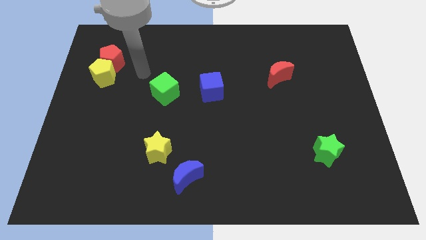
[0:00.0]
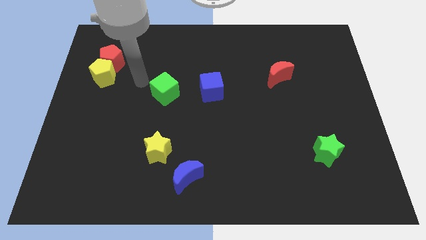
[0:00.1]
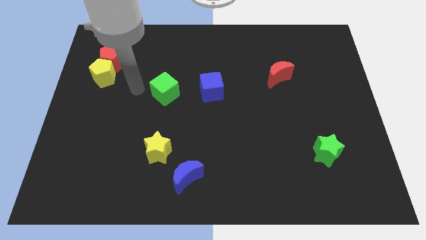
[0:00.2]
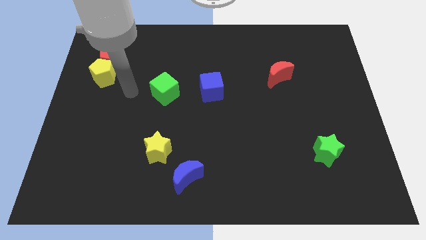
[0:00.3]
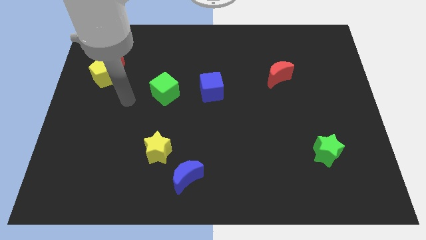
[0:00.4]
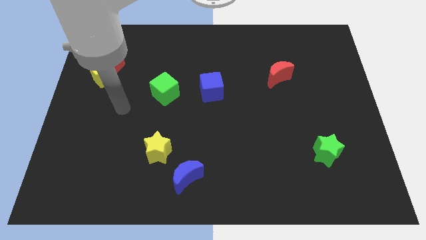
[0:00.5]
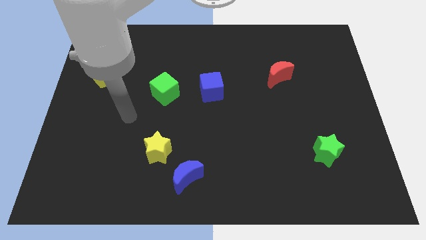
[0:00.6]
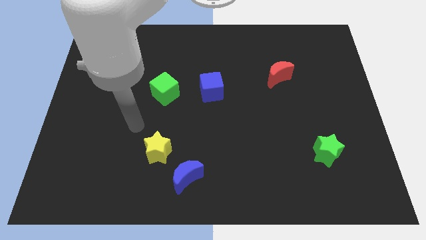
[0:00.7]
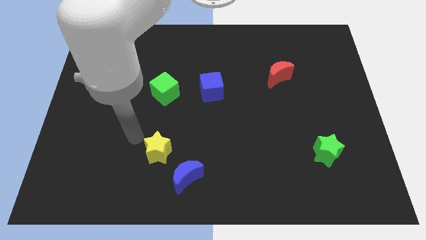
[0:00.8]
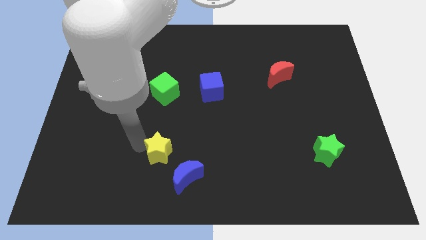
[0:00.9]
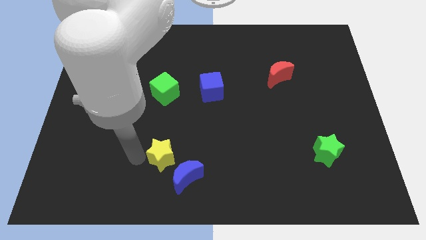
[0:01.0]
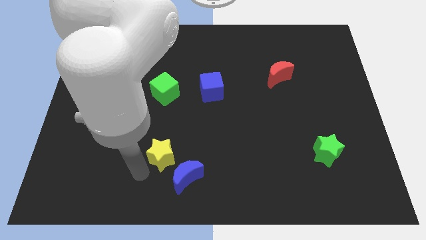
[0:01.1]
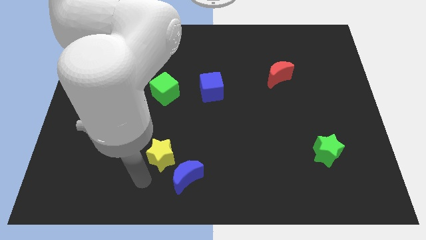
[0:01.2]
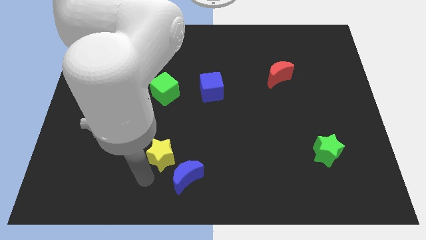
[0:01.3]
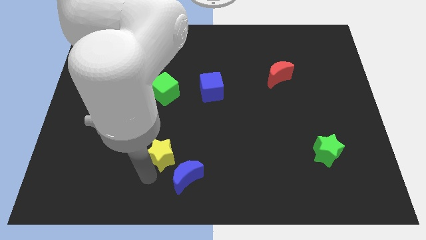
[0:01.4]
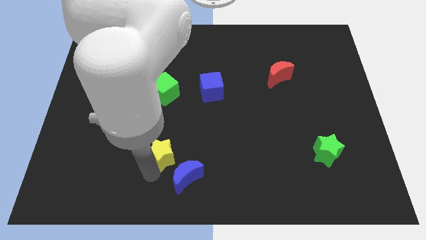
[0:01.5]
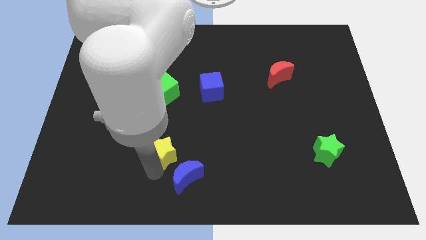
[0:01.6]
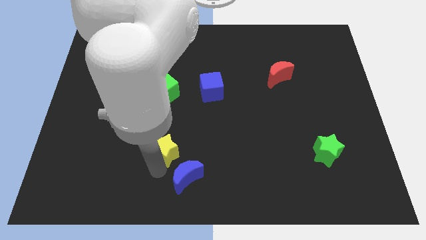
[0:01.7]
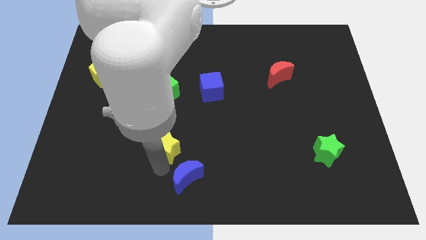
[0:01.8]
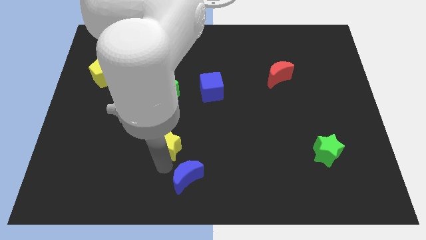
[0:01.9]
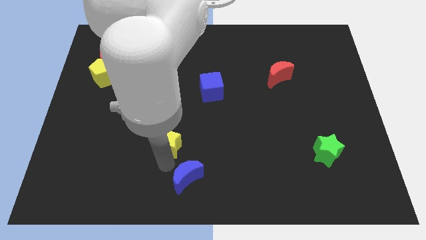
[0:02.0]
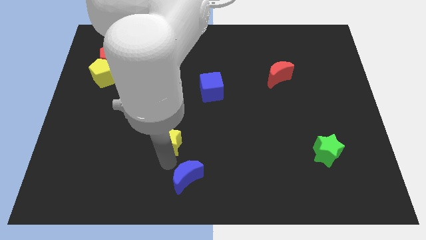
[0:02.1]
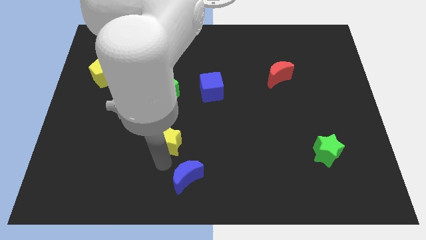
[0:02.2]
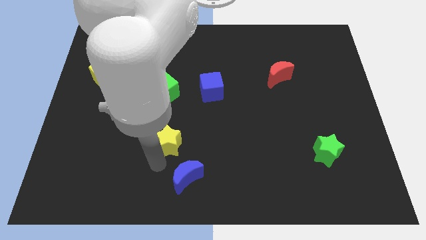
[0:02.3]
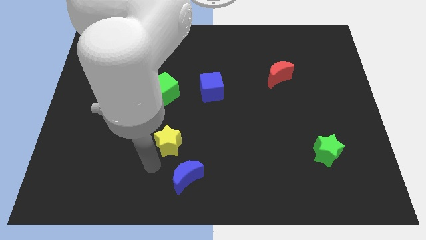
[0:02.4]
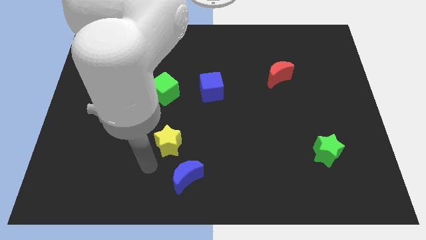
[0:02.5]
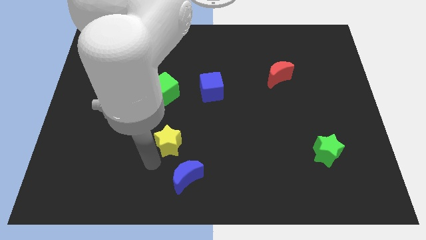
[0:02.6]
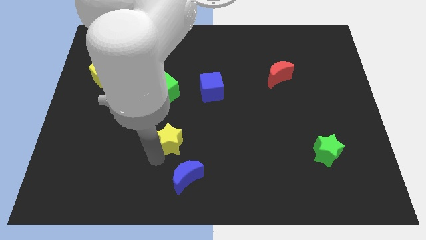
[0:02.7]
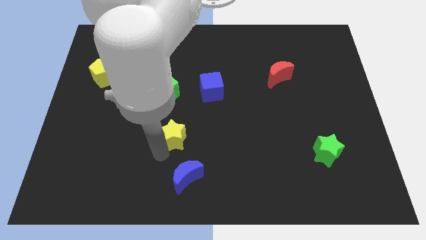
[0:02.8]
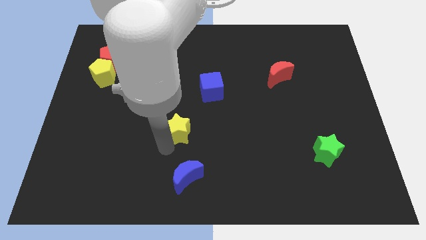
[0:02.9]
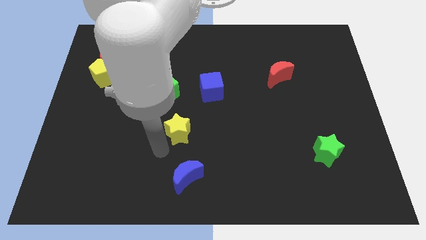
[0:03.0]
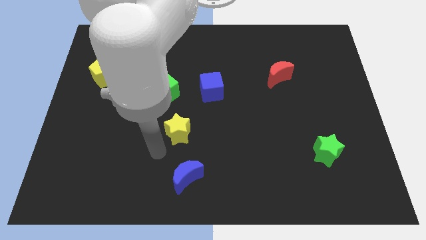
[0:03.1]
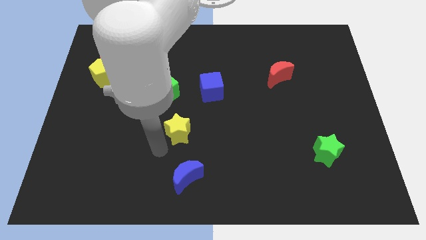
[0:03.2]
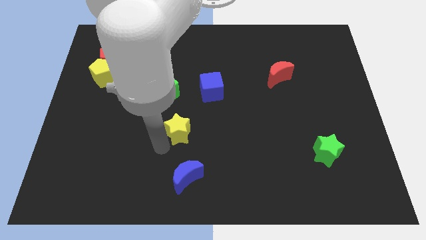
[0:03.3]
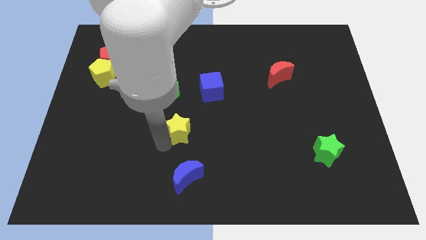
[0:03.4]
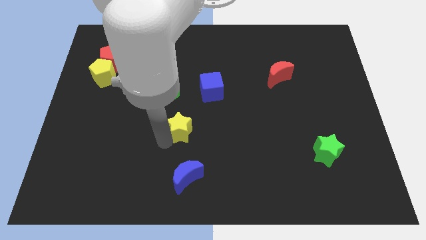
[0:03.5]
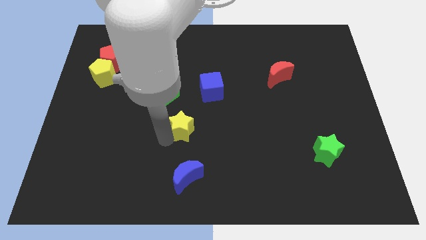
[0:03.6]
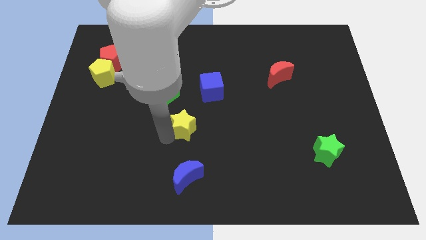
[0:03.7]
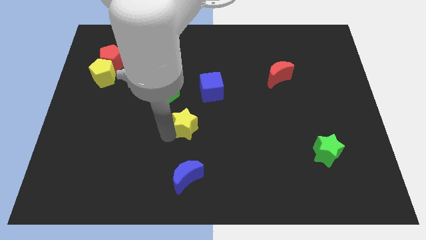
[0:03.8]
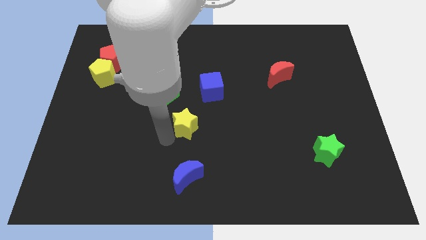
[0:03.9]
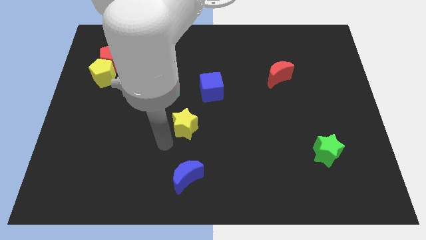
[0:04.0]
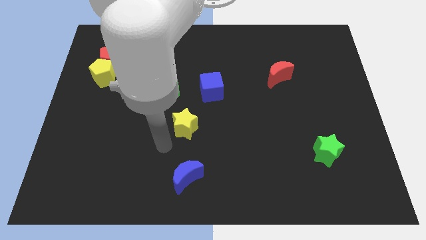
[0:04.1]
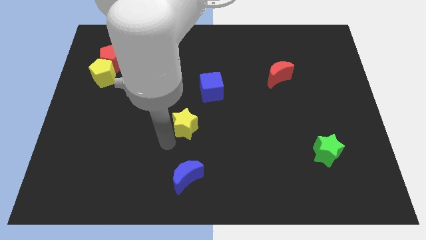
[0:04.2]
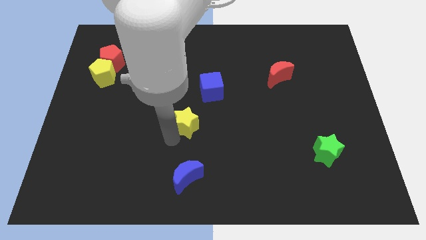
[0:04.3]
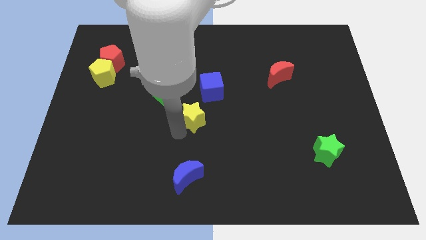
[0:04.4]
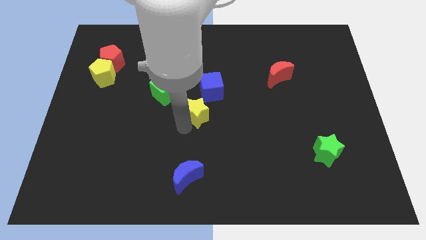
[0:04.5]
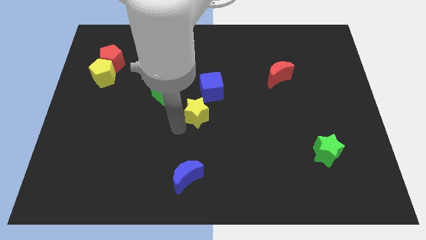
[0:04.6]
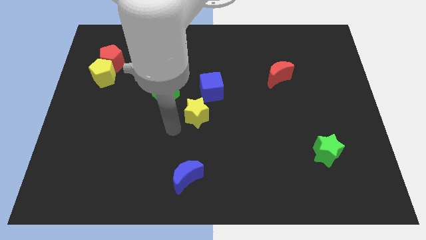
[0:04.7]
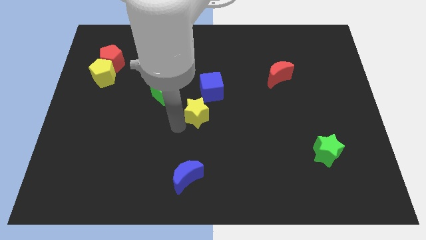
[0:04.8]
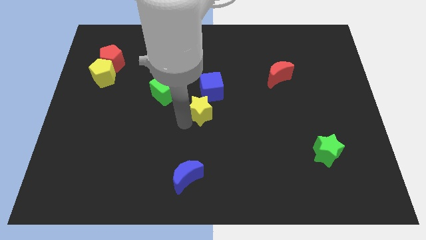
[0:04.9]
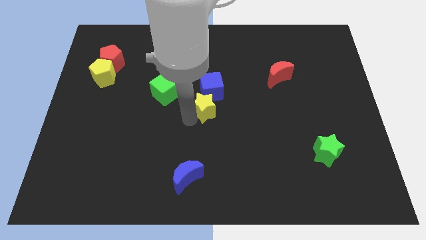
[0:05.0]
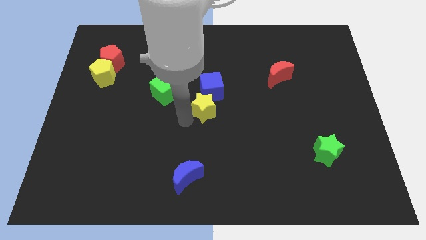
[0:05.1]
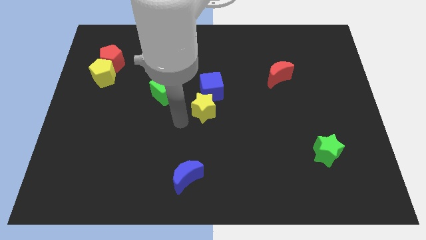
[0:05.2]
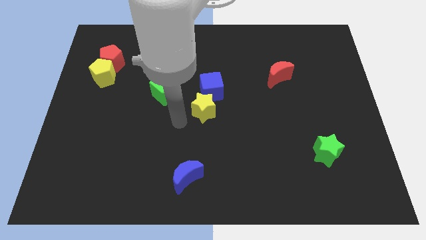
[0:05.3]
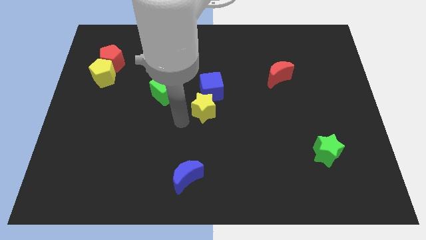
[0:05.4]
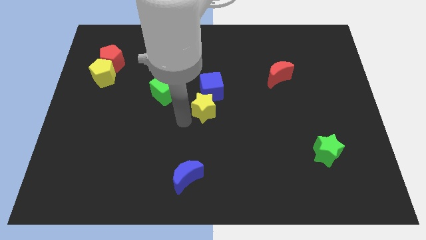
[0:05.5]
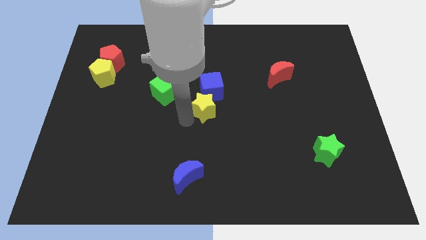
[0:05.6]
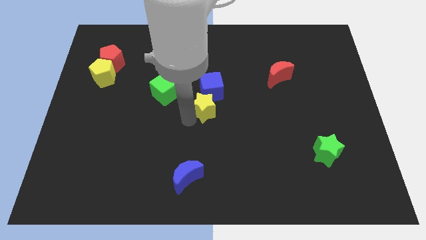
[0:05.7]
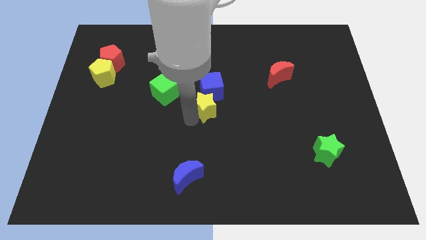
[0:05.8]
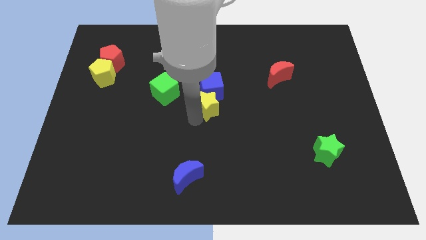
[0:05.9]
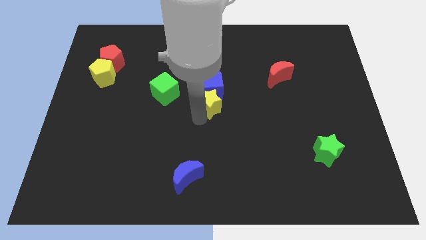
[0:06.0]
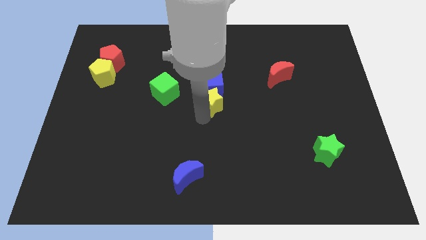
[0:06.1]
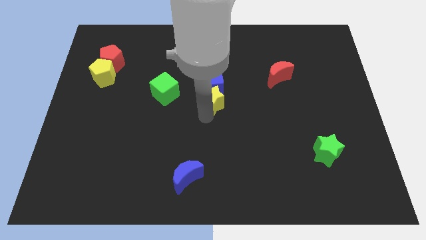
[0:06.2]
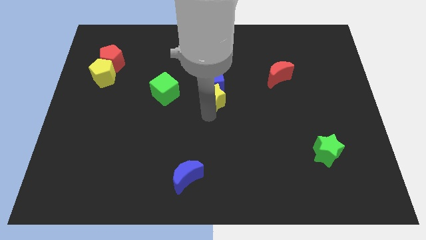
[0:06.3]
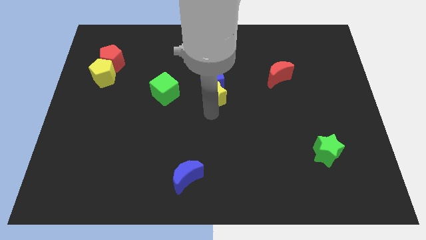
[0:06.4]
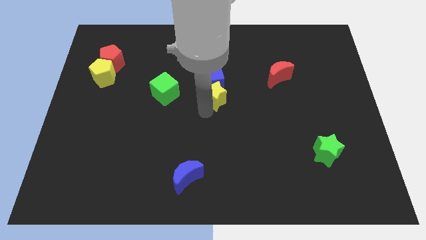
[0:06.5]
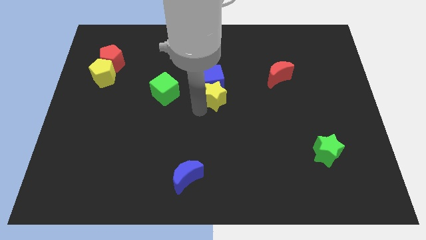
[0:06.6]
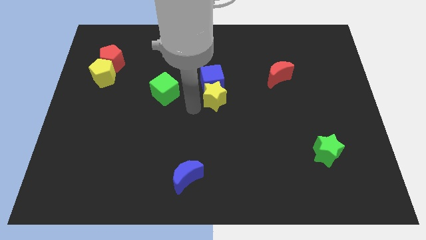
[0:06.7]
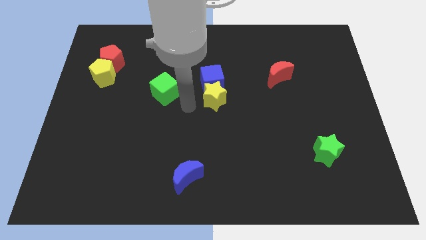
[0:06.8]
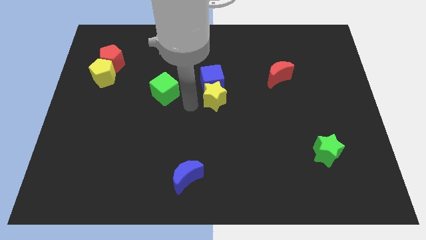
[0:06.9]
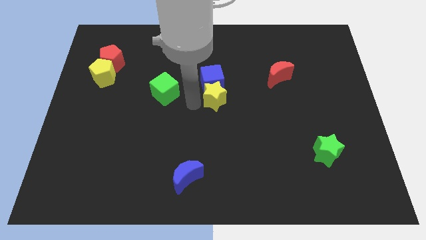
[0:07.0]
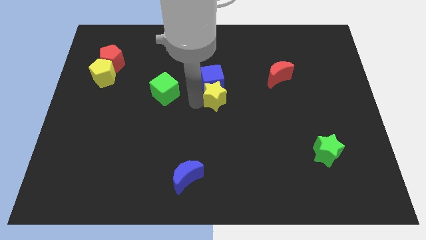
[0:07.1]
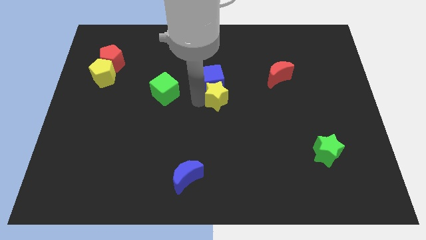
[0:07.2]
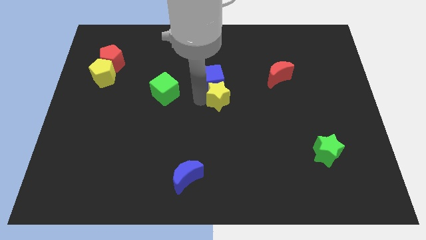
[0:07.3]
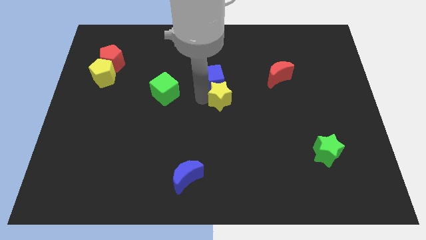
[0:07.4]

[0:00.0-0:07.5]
push the yellow star up and then right

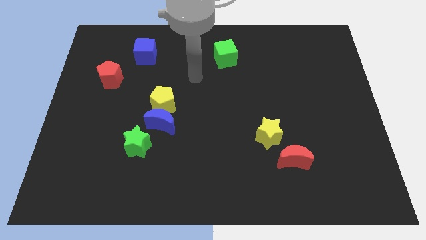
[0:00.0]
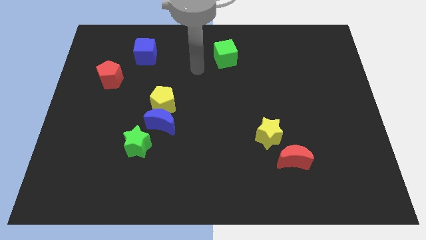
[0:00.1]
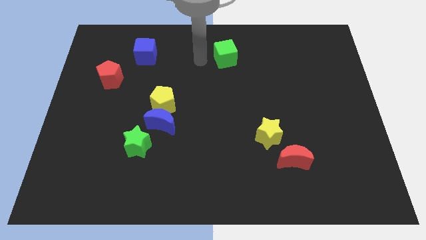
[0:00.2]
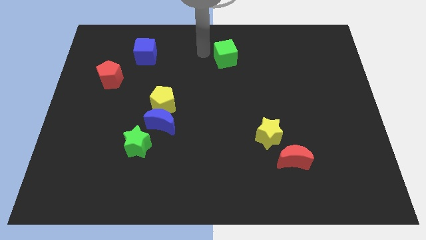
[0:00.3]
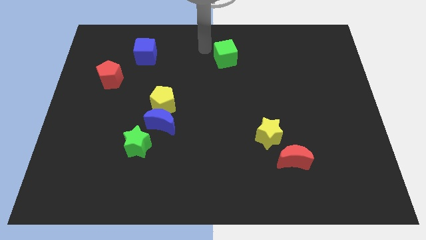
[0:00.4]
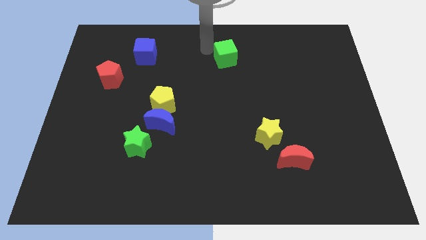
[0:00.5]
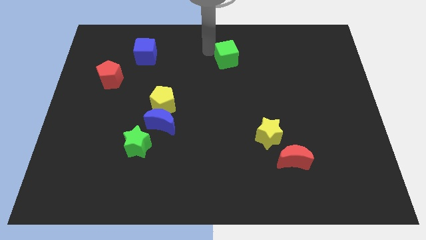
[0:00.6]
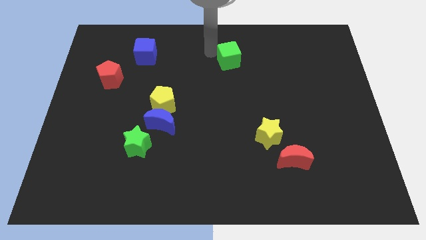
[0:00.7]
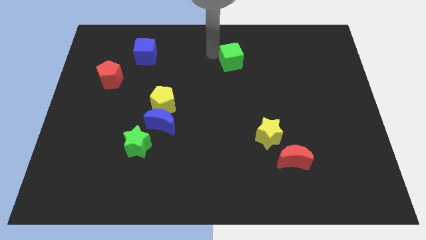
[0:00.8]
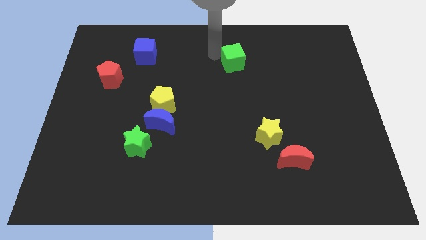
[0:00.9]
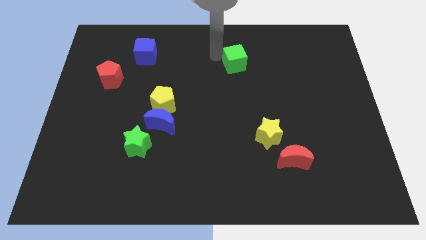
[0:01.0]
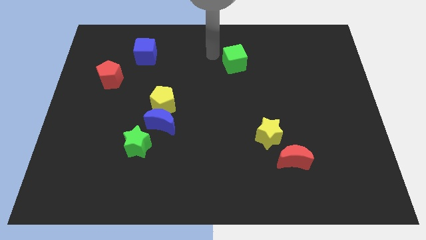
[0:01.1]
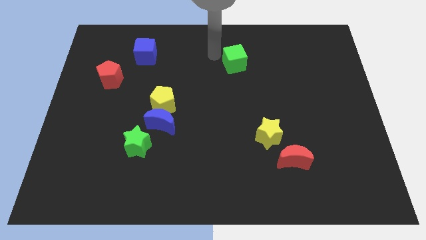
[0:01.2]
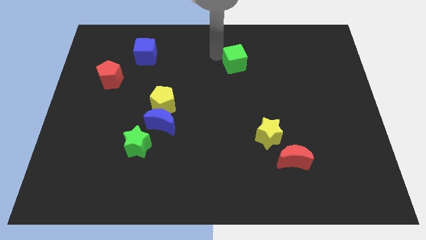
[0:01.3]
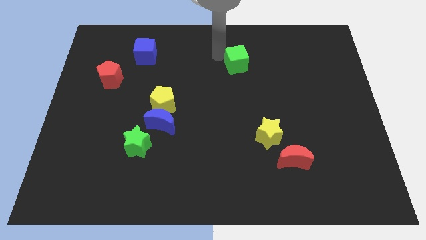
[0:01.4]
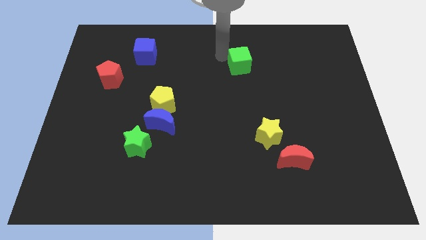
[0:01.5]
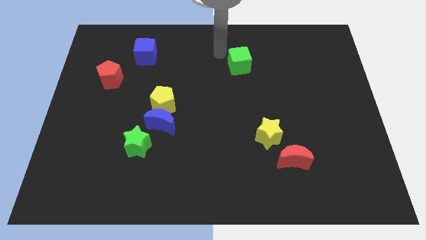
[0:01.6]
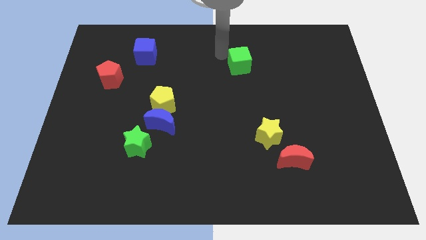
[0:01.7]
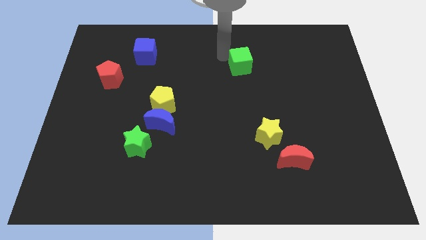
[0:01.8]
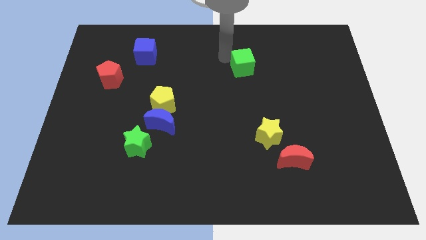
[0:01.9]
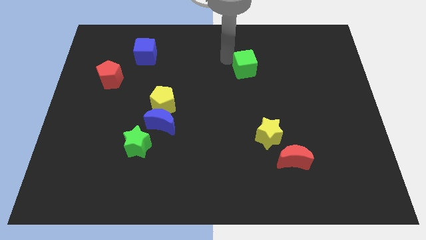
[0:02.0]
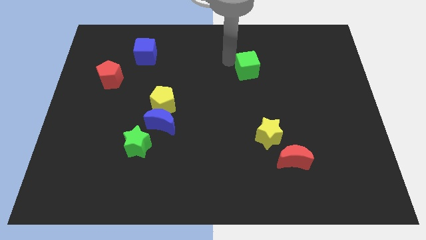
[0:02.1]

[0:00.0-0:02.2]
move the green cube downwards and then to the right a little
